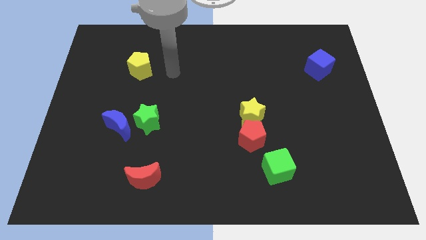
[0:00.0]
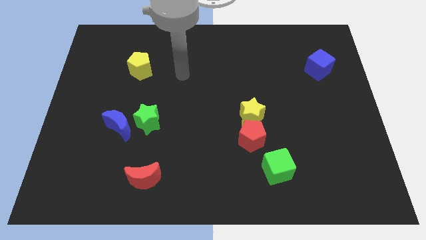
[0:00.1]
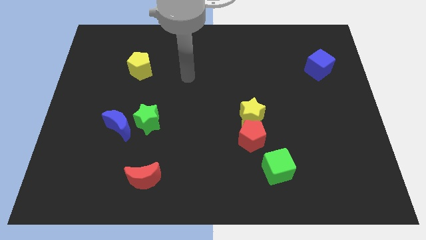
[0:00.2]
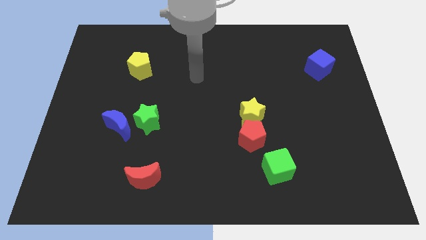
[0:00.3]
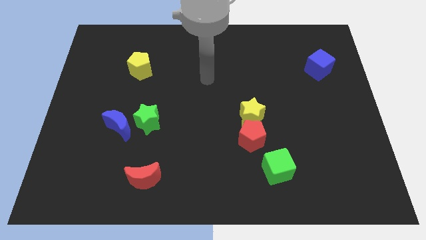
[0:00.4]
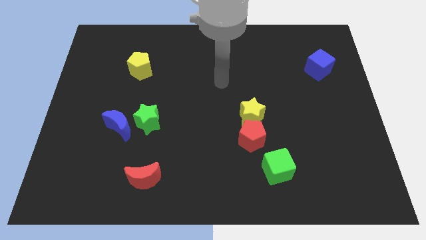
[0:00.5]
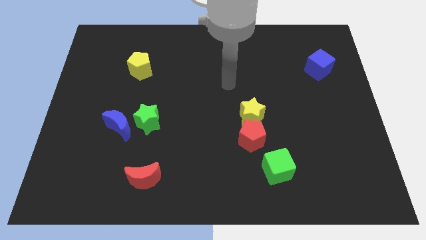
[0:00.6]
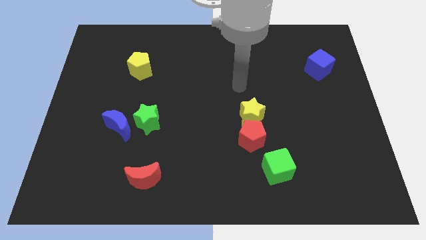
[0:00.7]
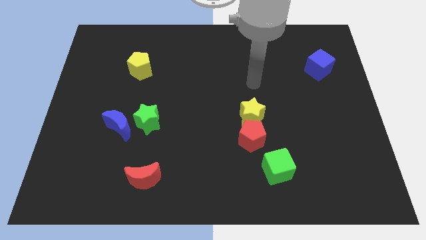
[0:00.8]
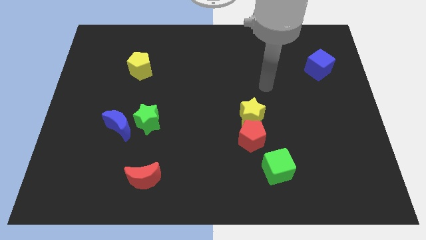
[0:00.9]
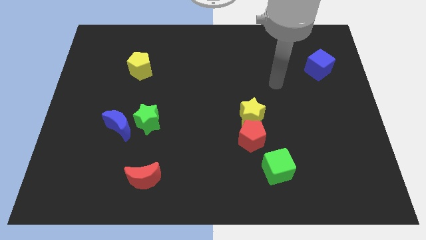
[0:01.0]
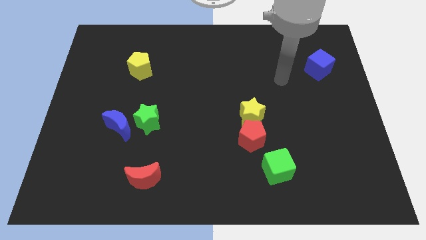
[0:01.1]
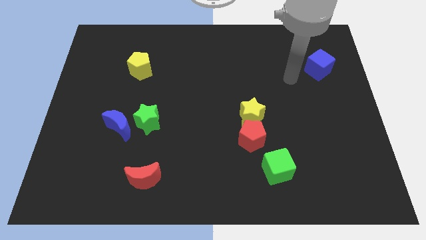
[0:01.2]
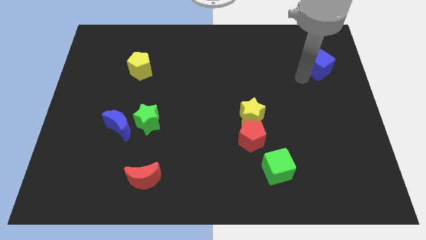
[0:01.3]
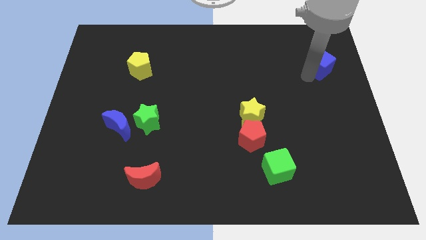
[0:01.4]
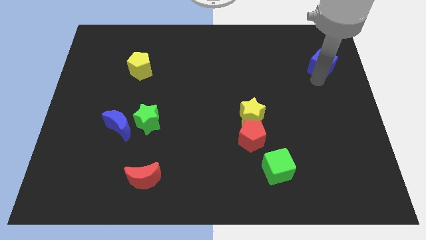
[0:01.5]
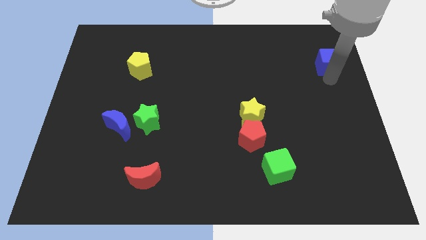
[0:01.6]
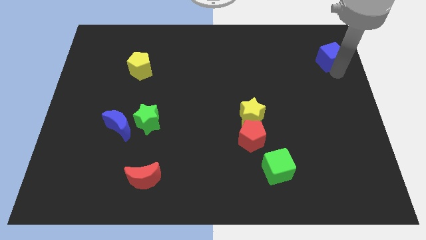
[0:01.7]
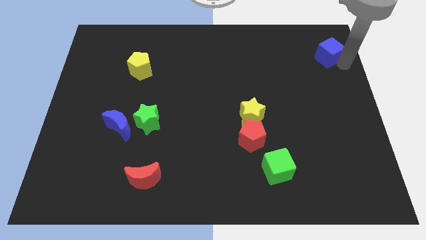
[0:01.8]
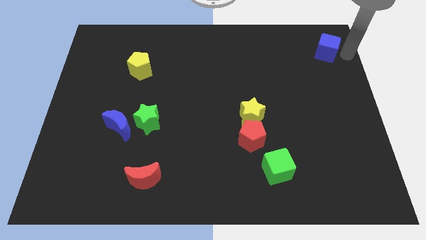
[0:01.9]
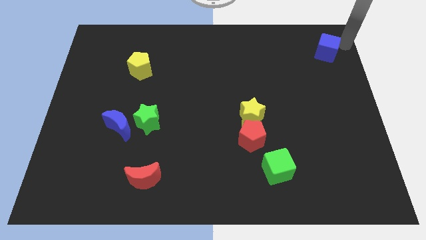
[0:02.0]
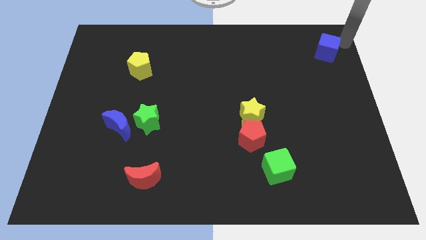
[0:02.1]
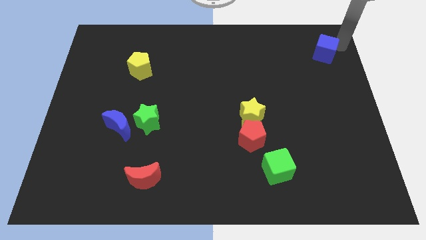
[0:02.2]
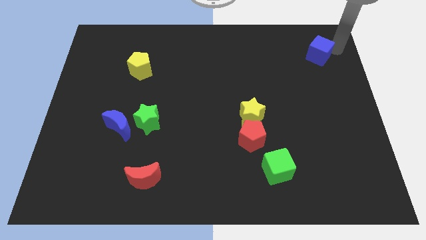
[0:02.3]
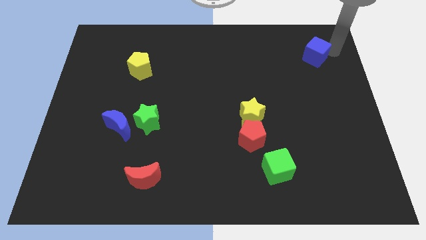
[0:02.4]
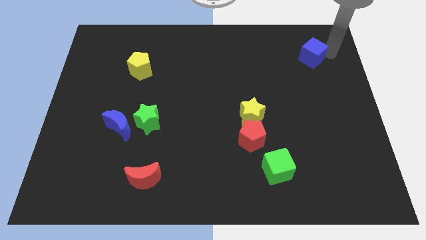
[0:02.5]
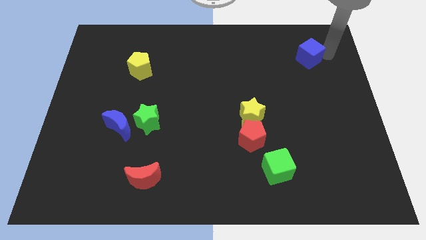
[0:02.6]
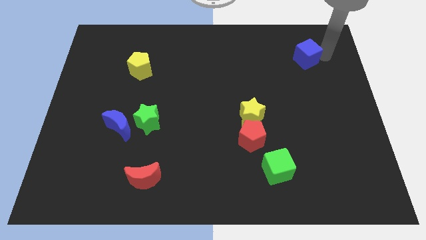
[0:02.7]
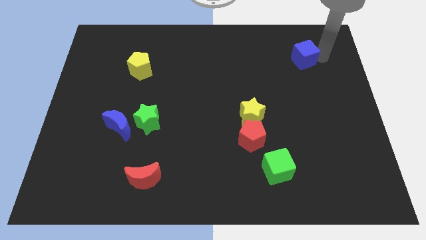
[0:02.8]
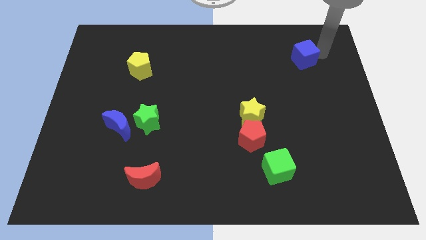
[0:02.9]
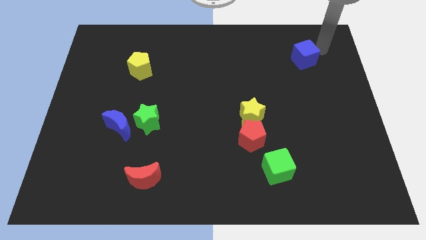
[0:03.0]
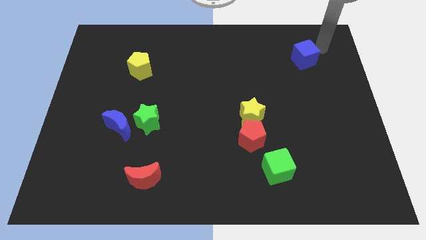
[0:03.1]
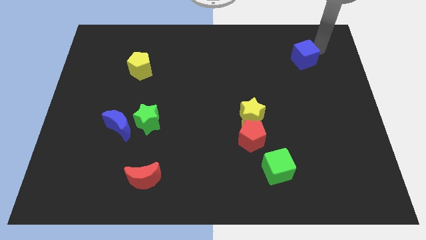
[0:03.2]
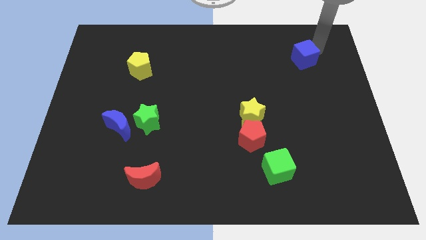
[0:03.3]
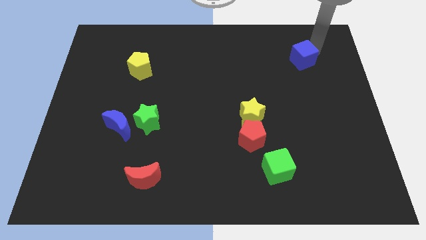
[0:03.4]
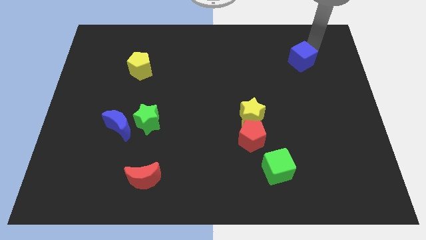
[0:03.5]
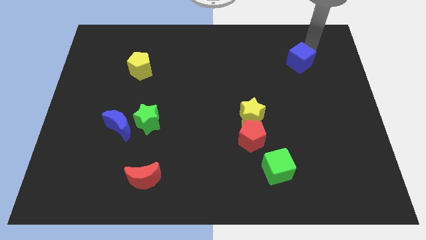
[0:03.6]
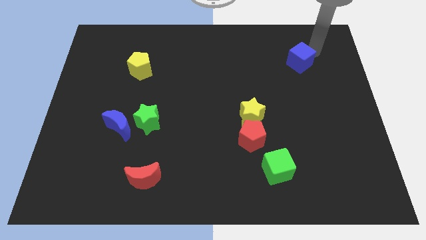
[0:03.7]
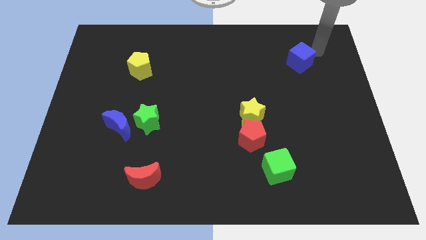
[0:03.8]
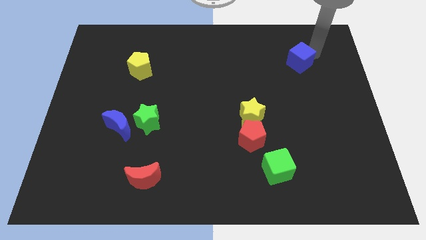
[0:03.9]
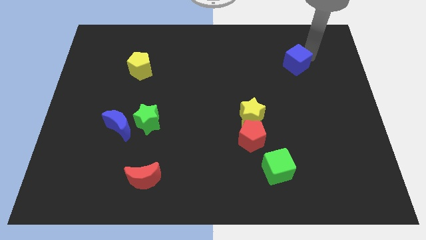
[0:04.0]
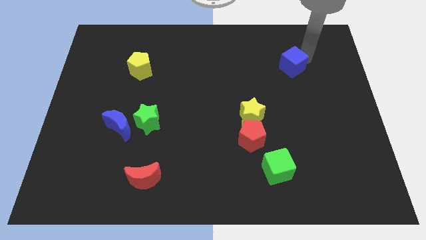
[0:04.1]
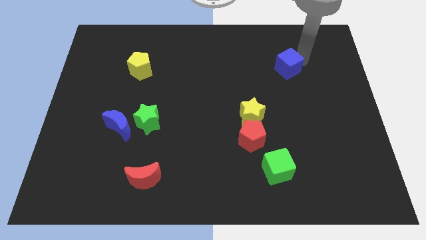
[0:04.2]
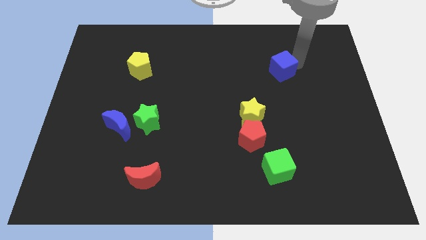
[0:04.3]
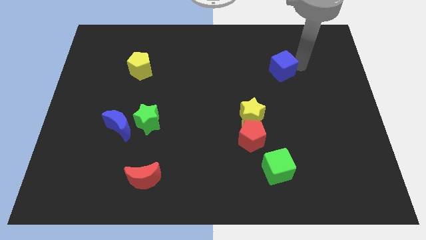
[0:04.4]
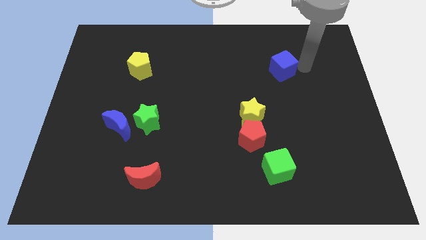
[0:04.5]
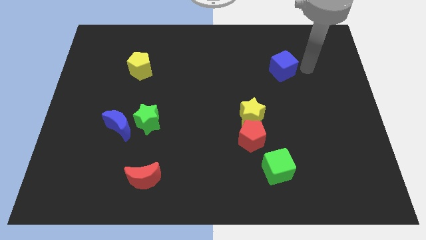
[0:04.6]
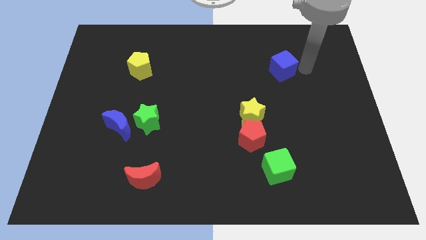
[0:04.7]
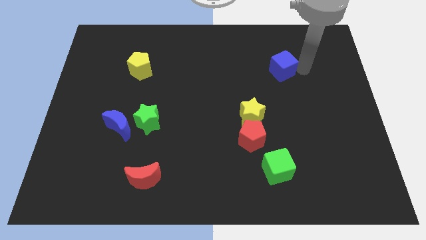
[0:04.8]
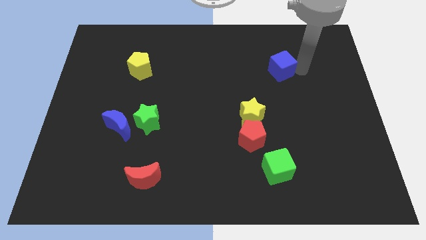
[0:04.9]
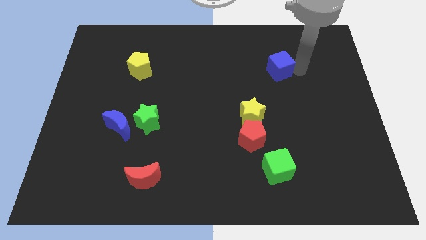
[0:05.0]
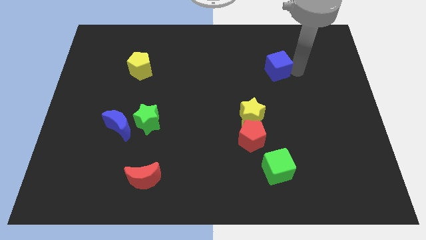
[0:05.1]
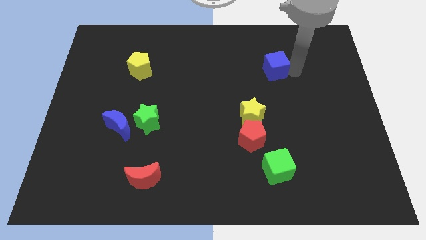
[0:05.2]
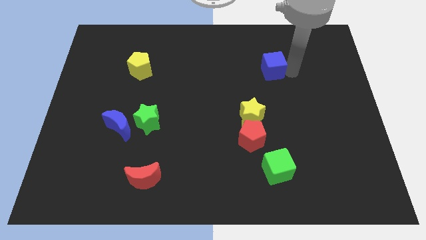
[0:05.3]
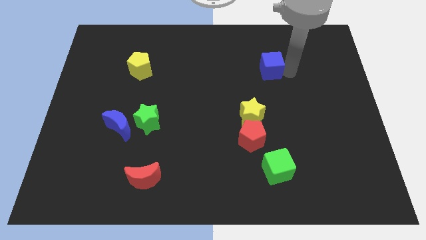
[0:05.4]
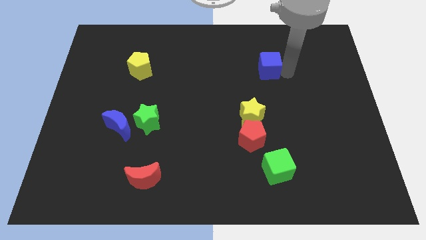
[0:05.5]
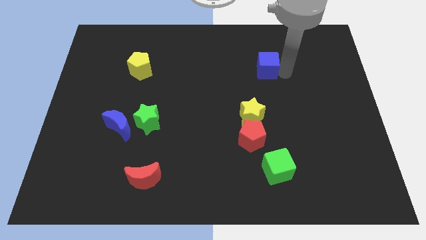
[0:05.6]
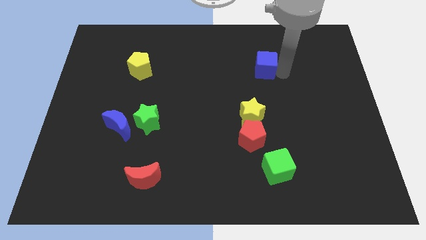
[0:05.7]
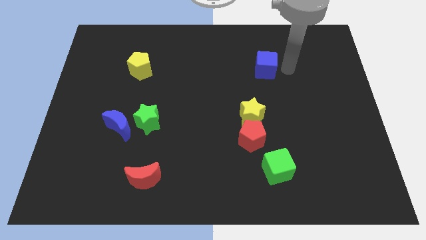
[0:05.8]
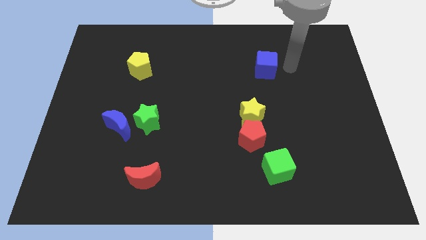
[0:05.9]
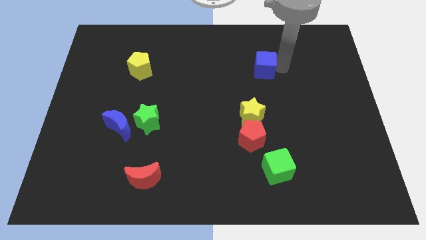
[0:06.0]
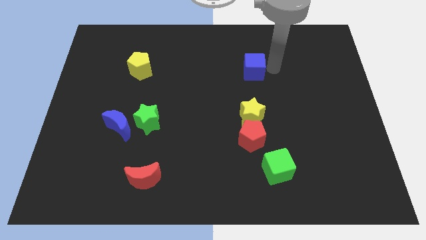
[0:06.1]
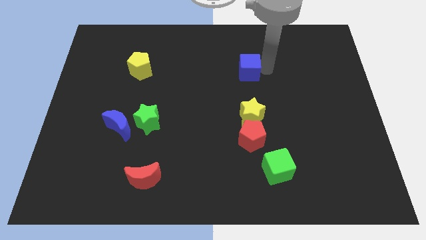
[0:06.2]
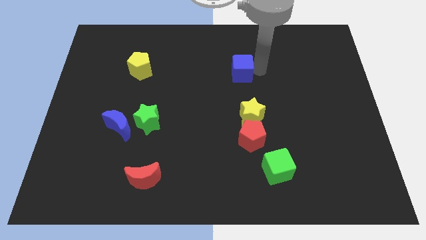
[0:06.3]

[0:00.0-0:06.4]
slide the blue cube to the left

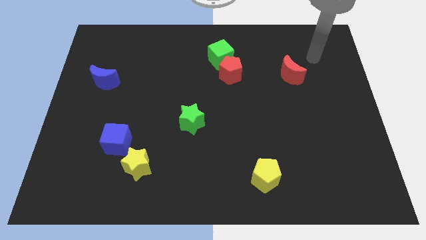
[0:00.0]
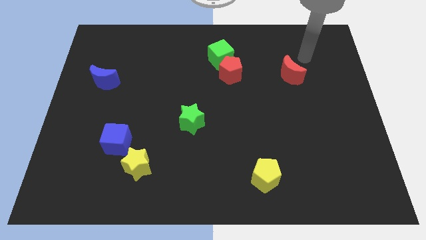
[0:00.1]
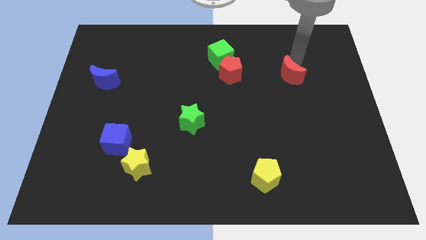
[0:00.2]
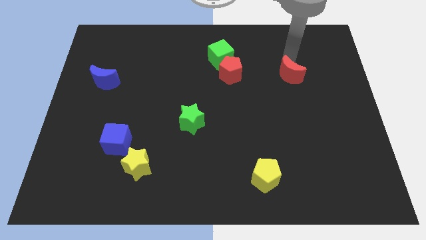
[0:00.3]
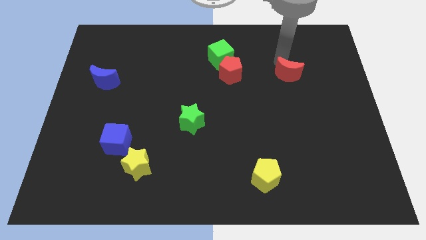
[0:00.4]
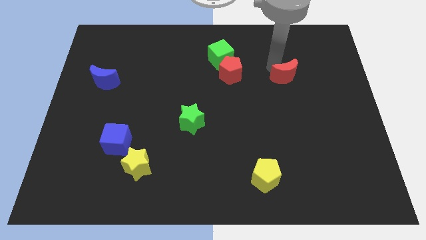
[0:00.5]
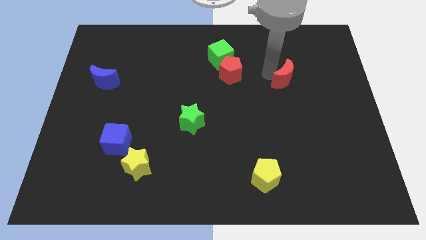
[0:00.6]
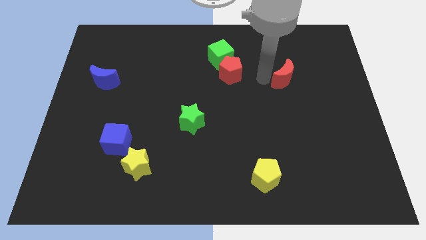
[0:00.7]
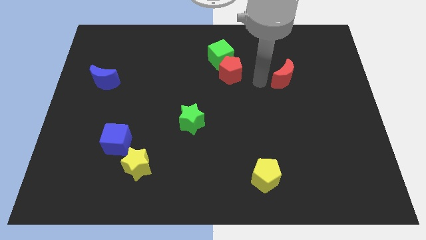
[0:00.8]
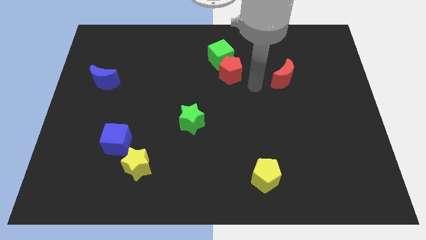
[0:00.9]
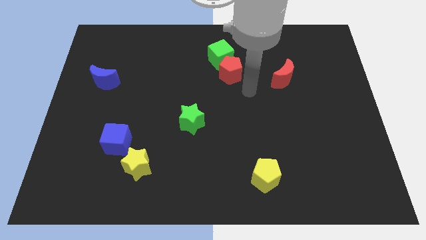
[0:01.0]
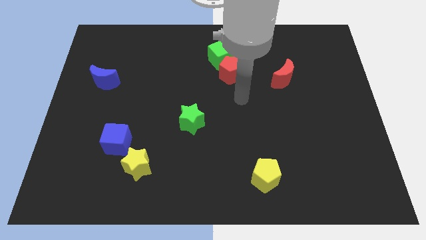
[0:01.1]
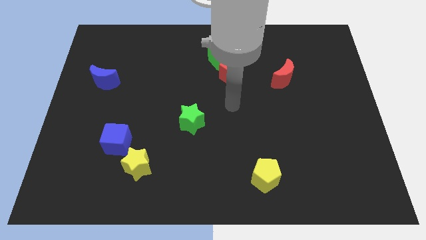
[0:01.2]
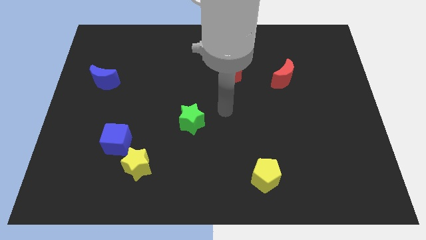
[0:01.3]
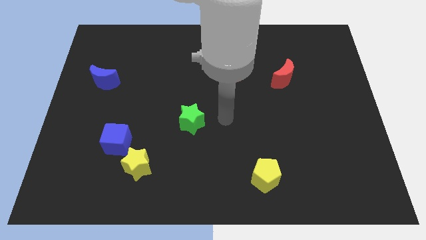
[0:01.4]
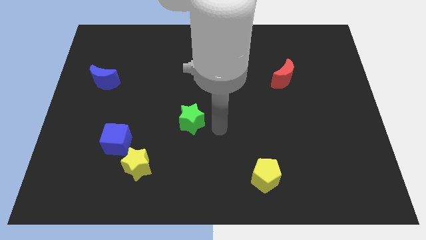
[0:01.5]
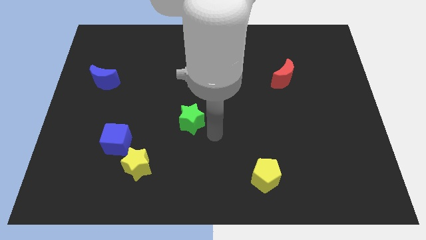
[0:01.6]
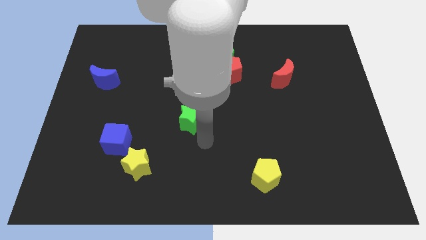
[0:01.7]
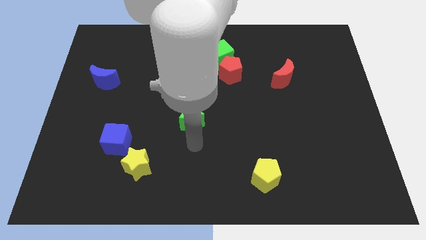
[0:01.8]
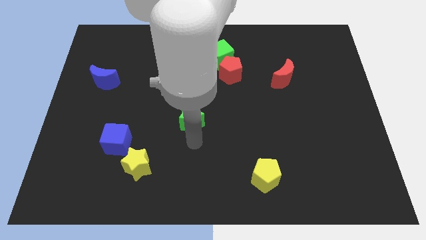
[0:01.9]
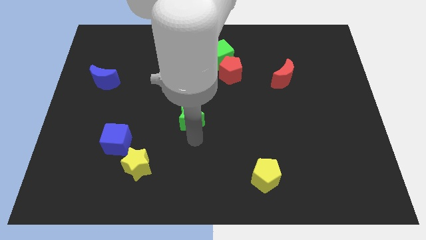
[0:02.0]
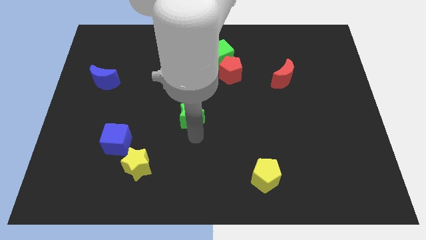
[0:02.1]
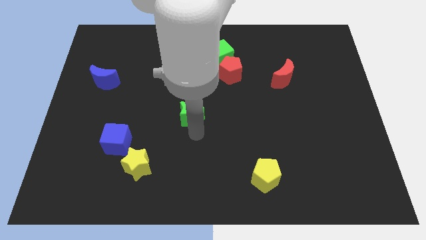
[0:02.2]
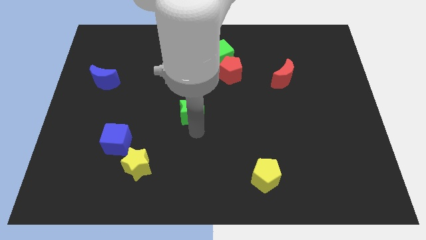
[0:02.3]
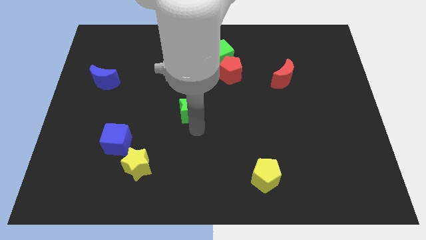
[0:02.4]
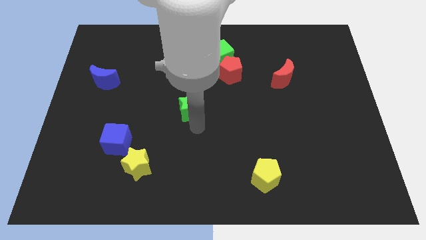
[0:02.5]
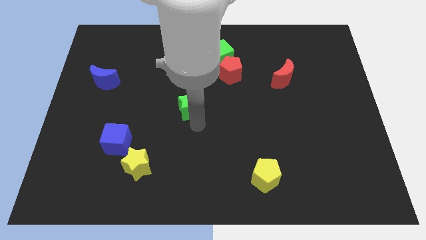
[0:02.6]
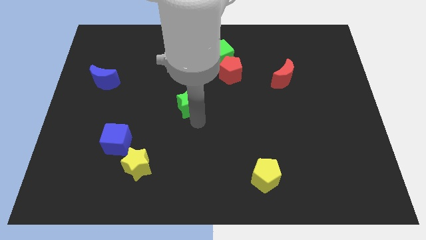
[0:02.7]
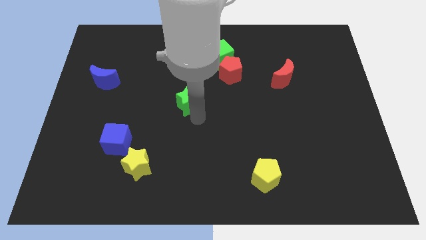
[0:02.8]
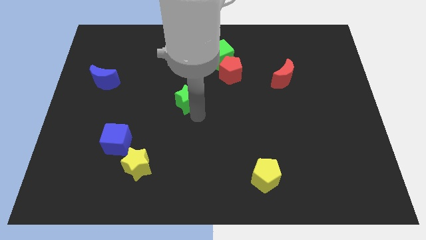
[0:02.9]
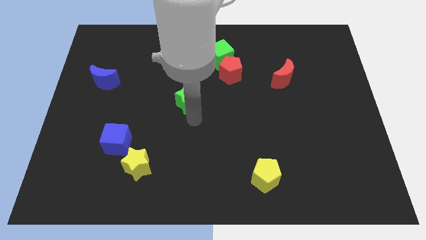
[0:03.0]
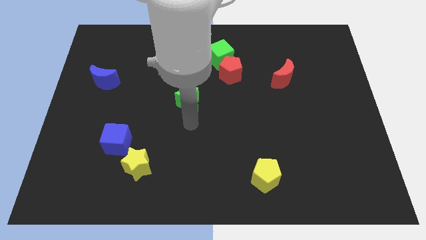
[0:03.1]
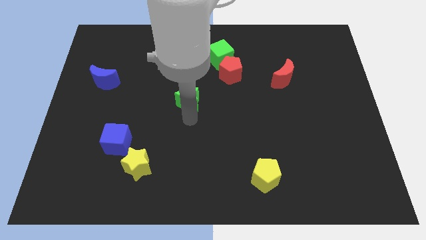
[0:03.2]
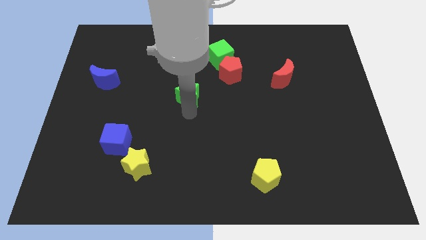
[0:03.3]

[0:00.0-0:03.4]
slightly move the green star upwards
